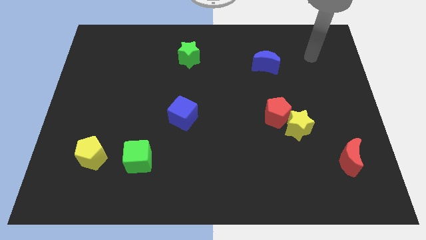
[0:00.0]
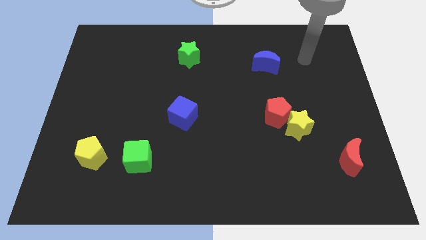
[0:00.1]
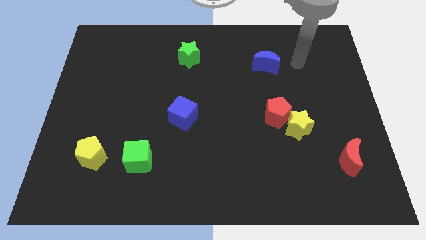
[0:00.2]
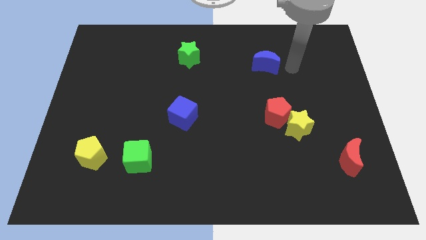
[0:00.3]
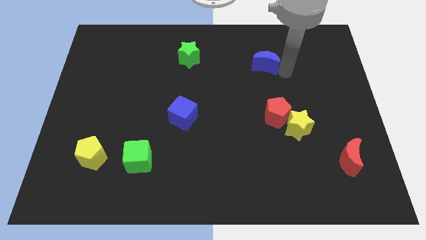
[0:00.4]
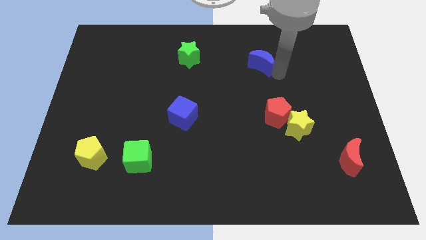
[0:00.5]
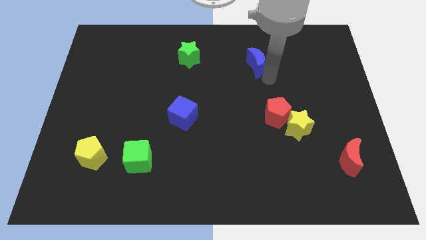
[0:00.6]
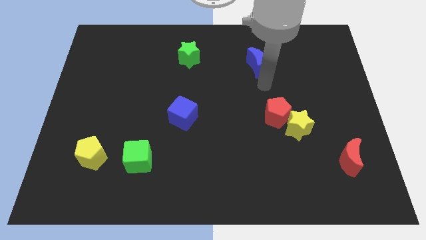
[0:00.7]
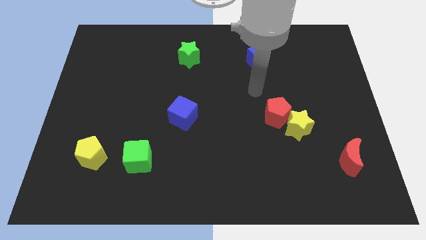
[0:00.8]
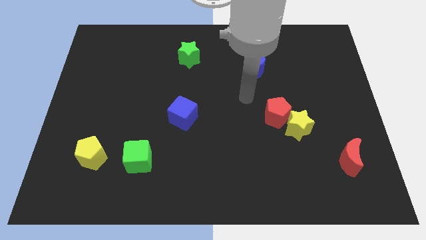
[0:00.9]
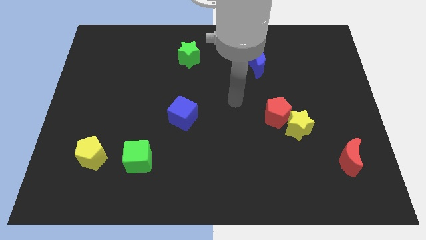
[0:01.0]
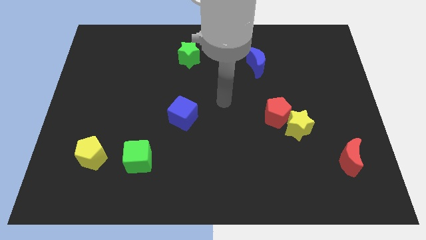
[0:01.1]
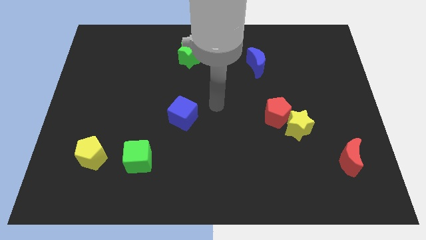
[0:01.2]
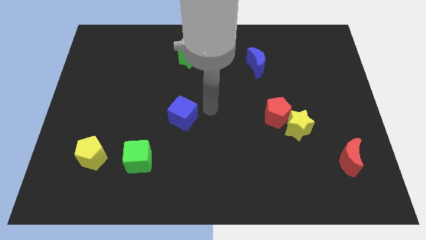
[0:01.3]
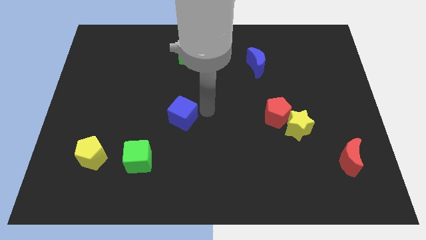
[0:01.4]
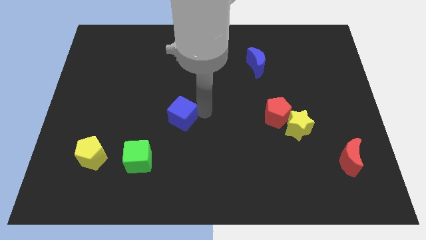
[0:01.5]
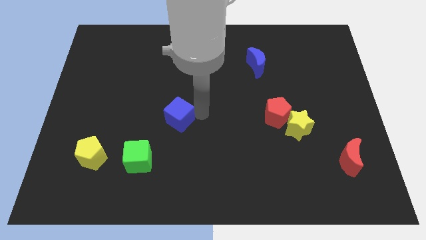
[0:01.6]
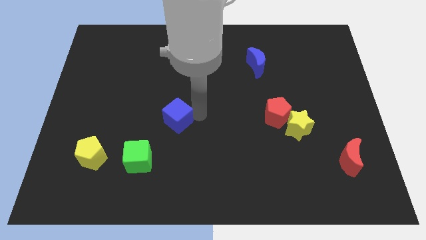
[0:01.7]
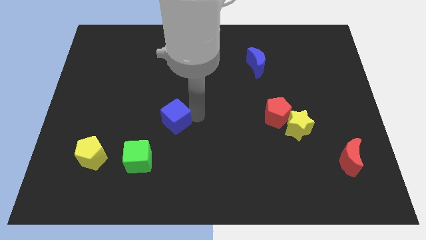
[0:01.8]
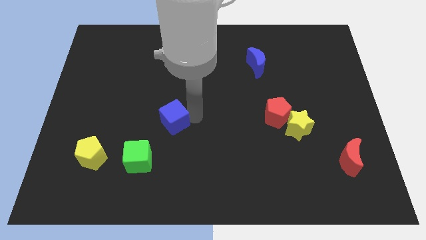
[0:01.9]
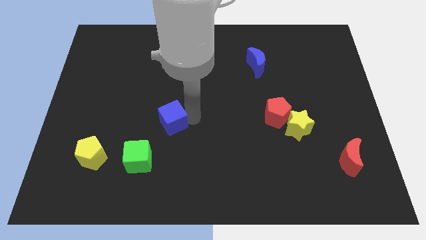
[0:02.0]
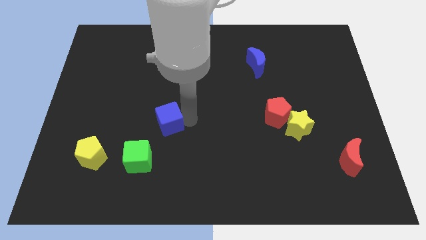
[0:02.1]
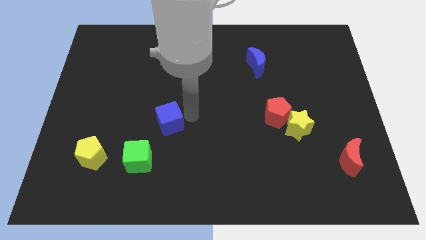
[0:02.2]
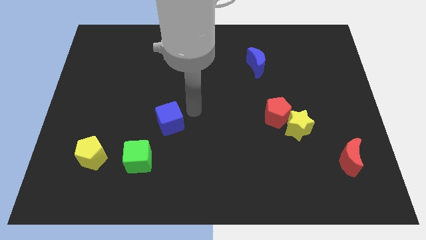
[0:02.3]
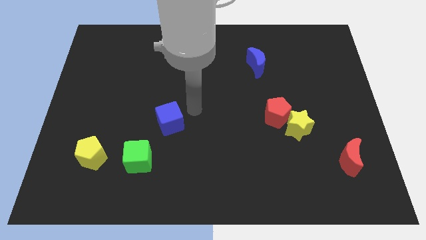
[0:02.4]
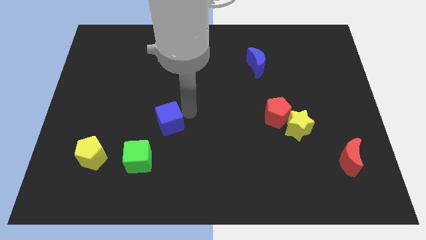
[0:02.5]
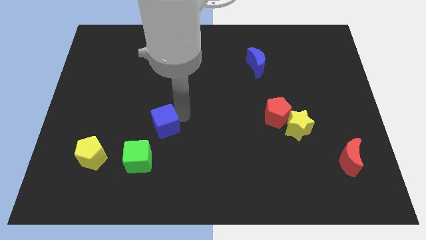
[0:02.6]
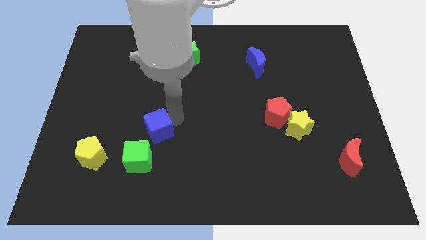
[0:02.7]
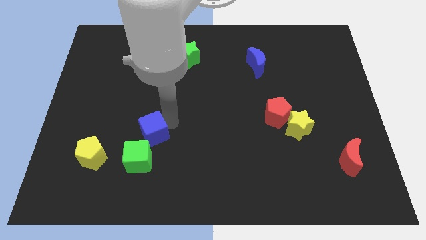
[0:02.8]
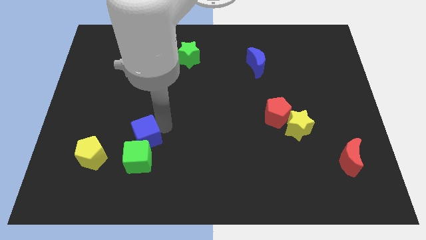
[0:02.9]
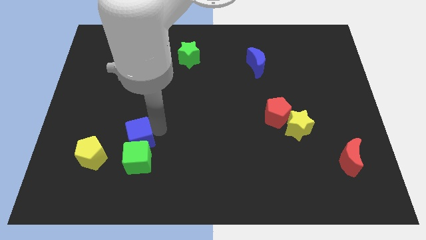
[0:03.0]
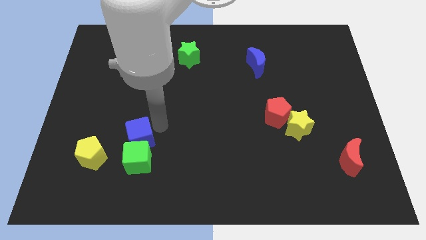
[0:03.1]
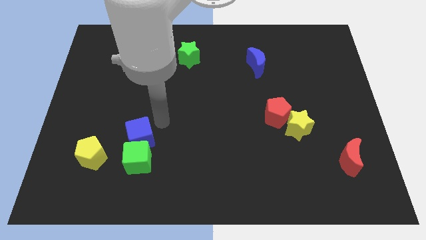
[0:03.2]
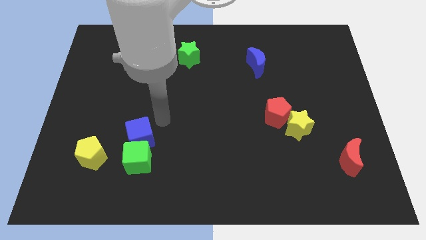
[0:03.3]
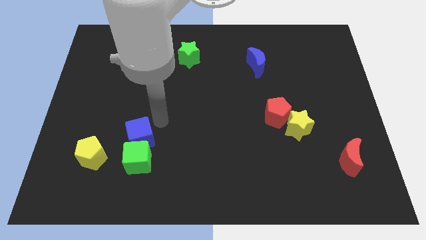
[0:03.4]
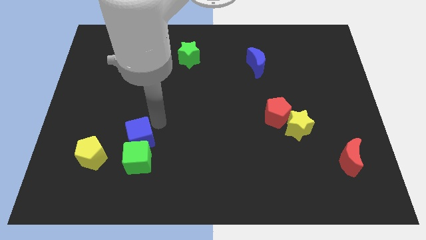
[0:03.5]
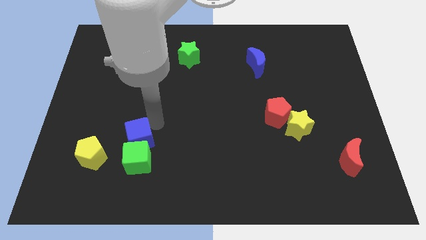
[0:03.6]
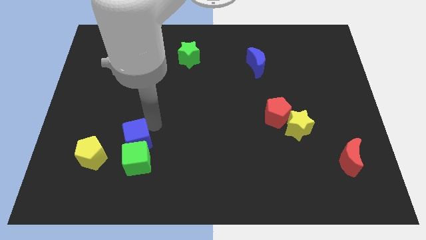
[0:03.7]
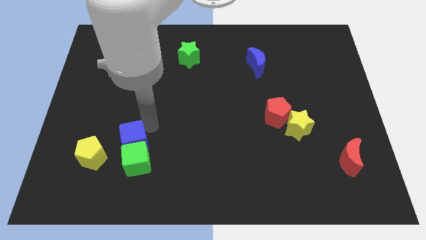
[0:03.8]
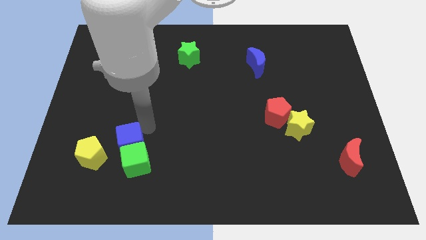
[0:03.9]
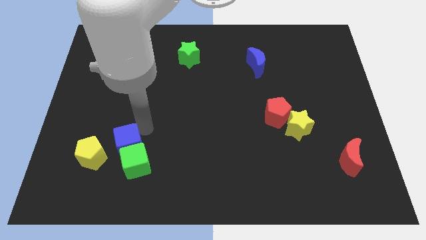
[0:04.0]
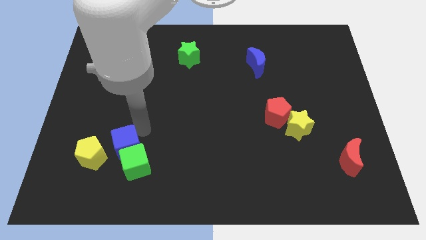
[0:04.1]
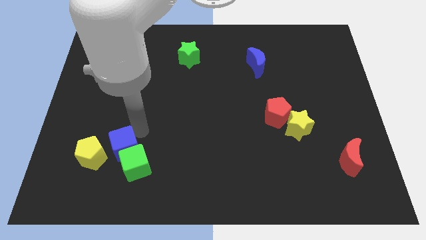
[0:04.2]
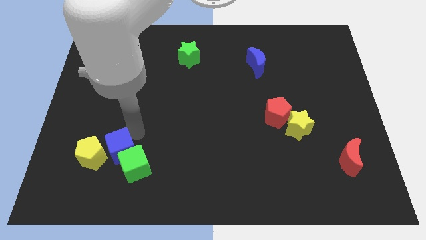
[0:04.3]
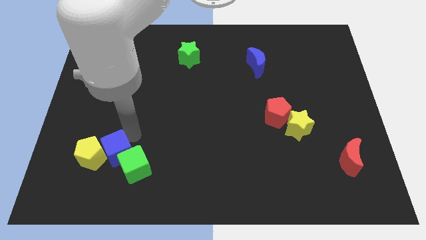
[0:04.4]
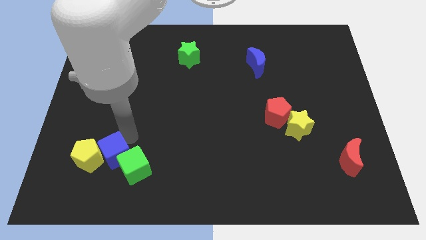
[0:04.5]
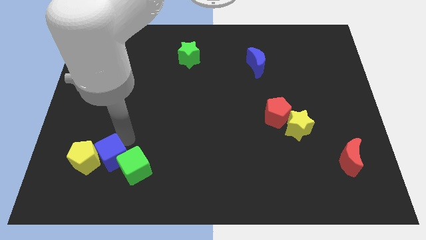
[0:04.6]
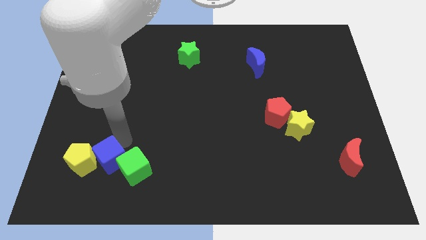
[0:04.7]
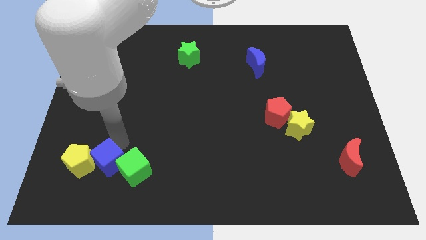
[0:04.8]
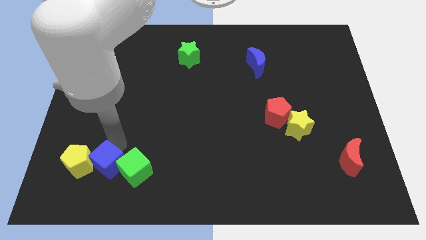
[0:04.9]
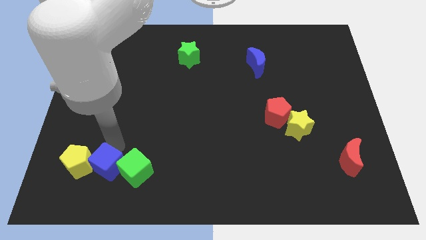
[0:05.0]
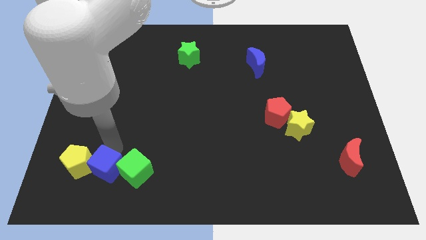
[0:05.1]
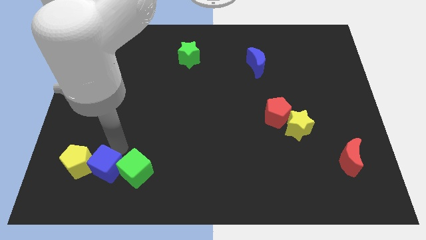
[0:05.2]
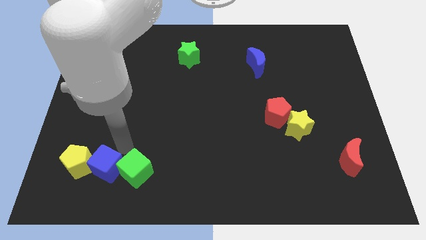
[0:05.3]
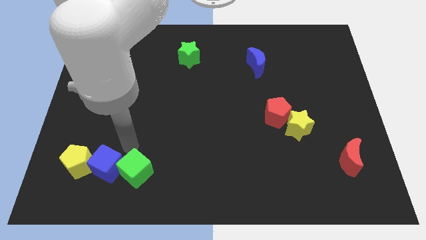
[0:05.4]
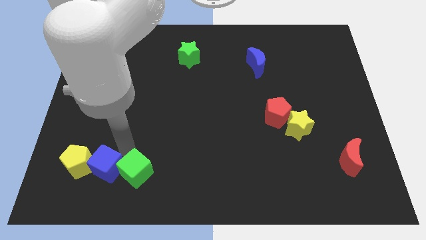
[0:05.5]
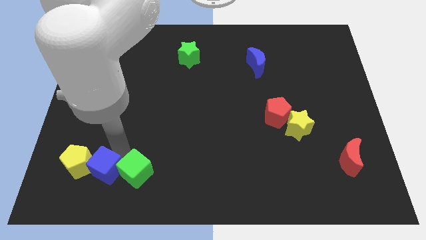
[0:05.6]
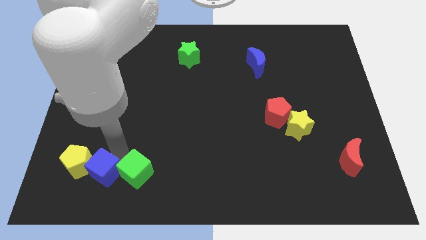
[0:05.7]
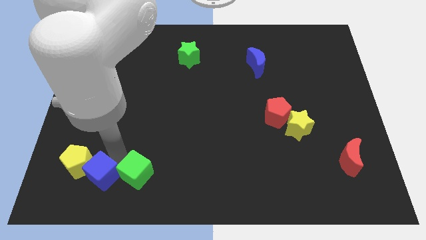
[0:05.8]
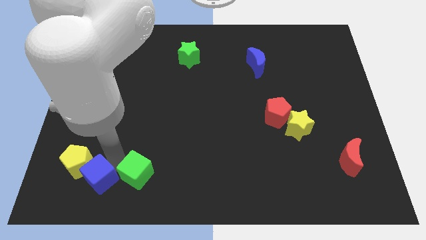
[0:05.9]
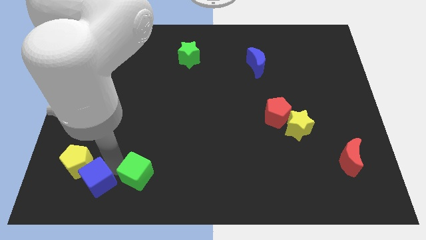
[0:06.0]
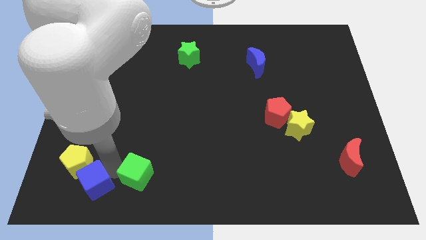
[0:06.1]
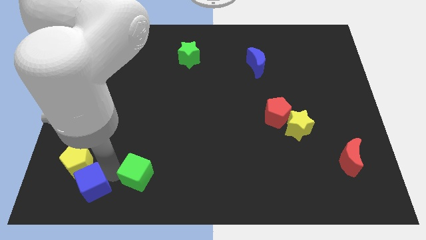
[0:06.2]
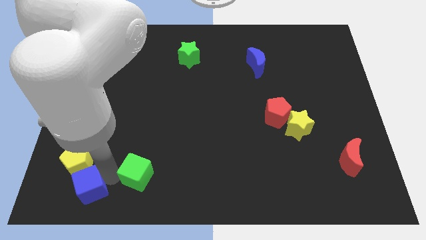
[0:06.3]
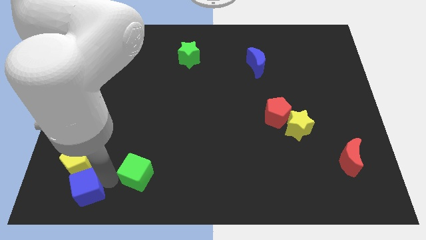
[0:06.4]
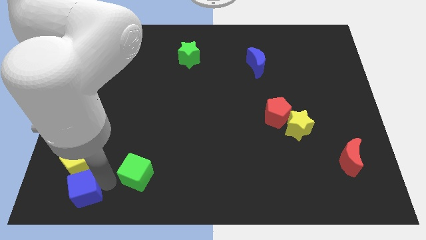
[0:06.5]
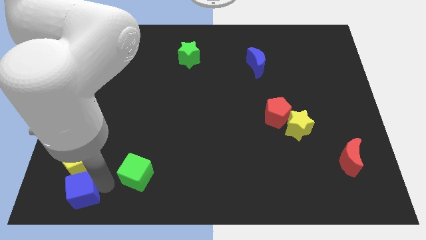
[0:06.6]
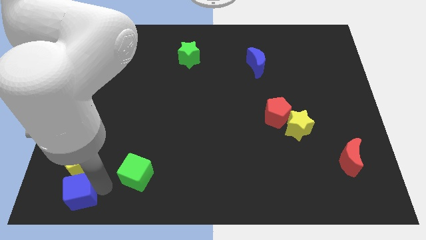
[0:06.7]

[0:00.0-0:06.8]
slide the blue cube to the bottom left

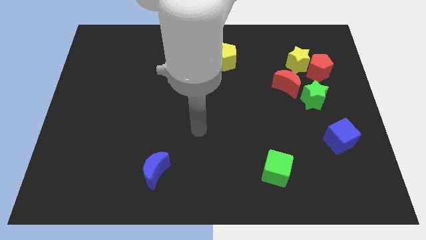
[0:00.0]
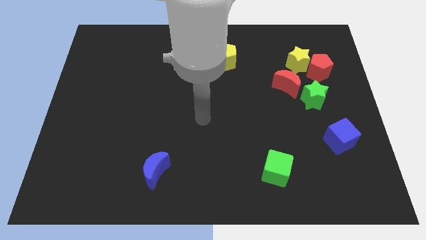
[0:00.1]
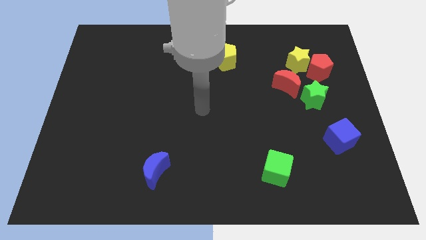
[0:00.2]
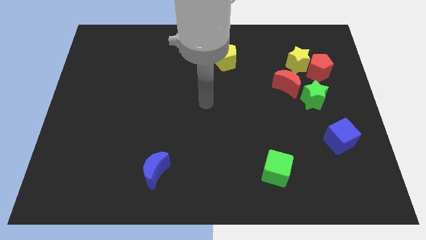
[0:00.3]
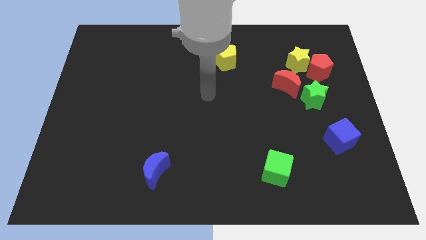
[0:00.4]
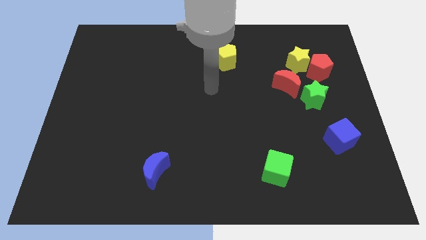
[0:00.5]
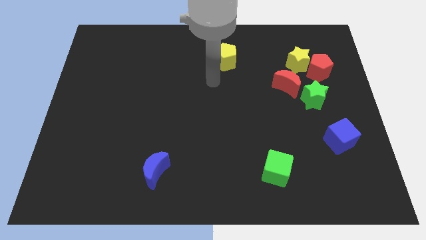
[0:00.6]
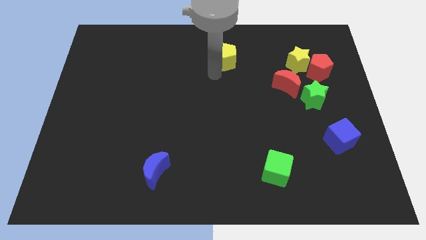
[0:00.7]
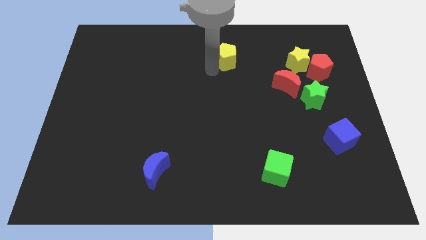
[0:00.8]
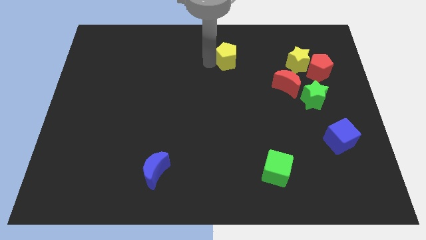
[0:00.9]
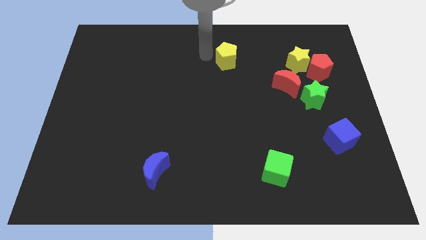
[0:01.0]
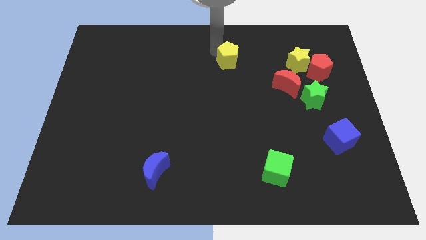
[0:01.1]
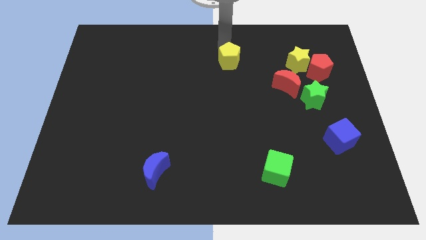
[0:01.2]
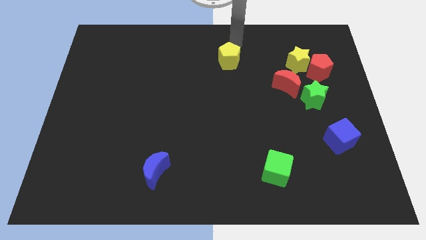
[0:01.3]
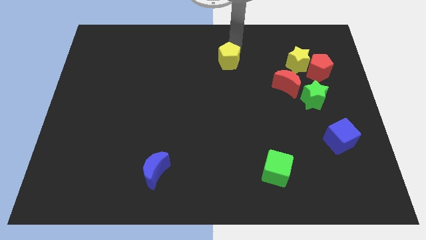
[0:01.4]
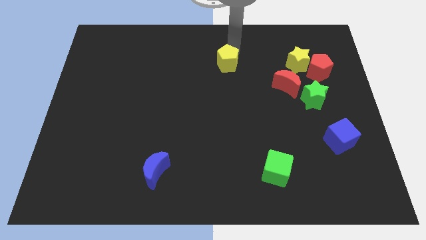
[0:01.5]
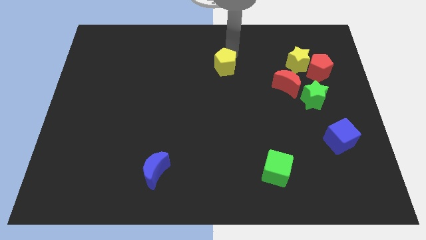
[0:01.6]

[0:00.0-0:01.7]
push the yellow pentagon to the center of the board
